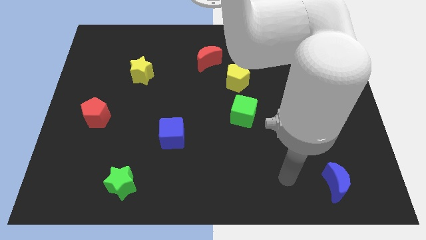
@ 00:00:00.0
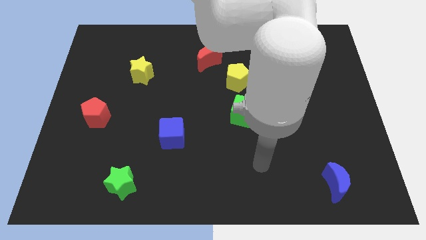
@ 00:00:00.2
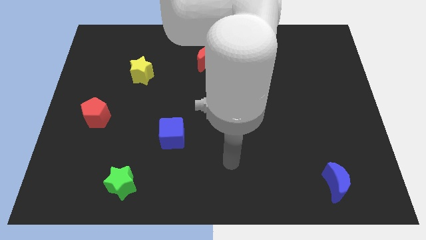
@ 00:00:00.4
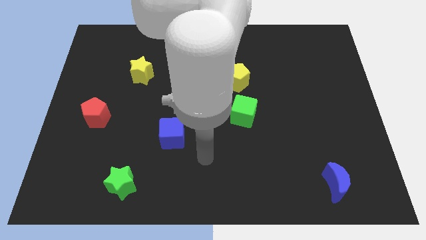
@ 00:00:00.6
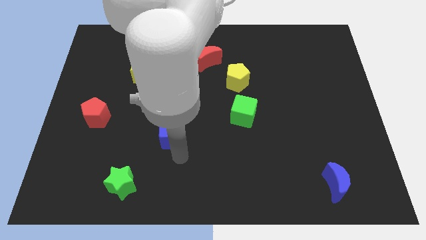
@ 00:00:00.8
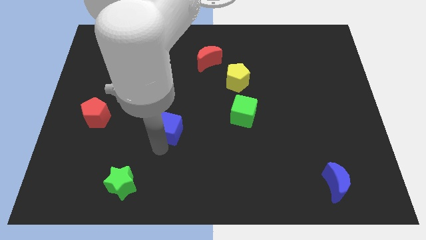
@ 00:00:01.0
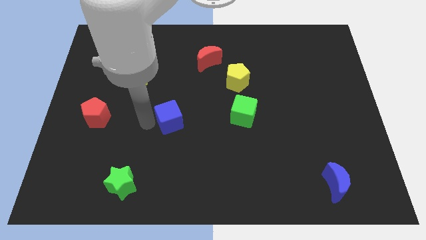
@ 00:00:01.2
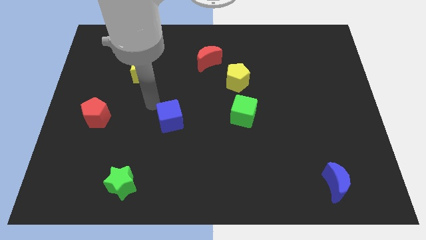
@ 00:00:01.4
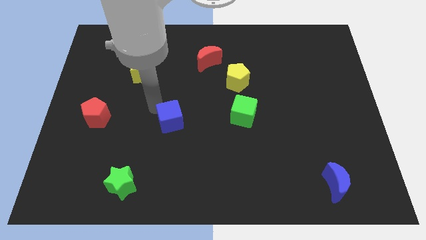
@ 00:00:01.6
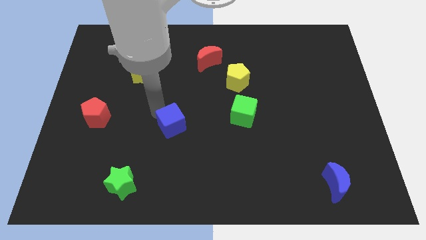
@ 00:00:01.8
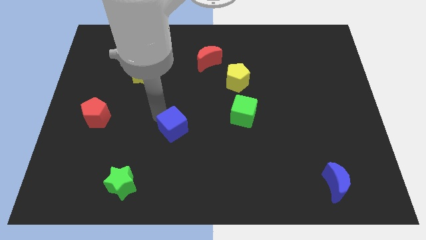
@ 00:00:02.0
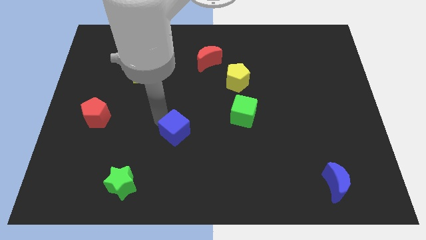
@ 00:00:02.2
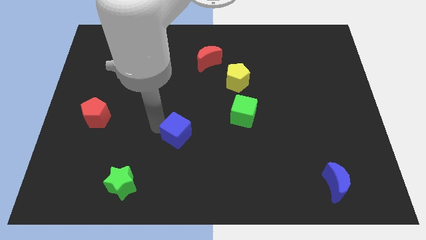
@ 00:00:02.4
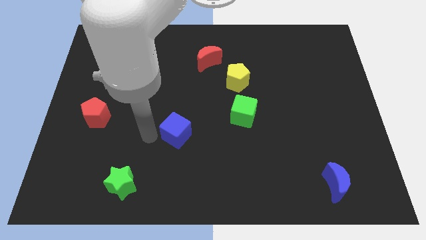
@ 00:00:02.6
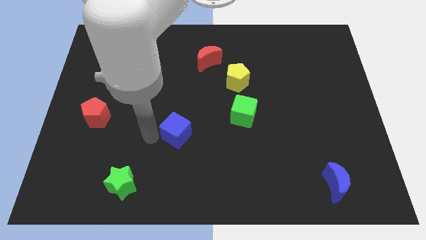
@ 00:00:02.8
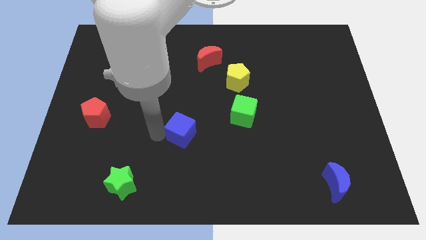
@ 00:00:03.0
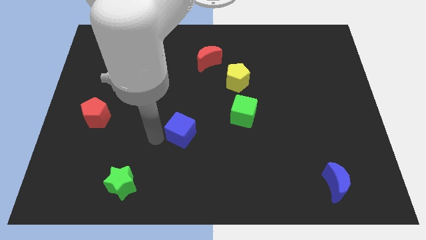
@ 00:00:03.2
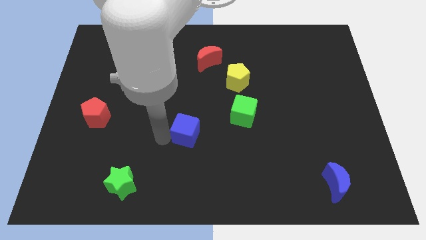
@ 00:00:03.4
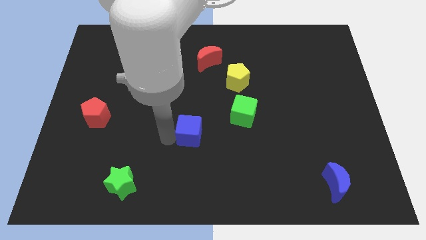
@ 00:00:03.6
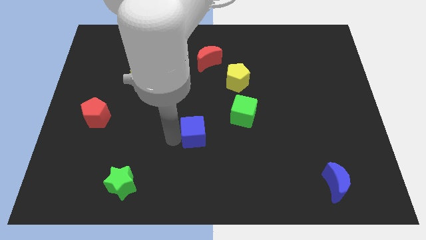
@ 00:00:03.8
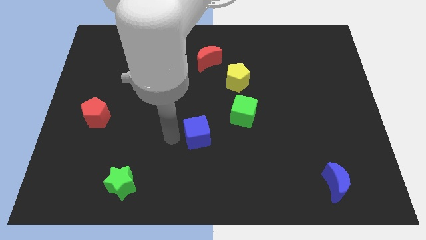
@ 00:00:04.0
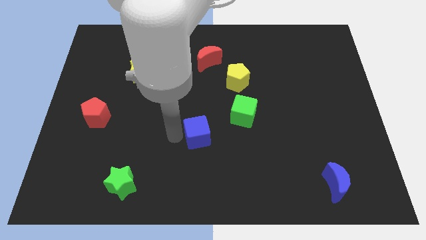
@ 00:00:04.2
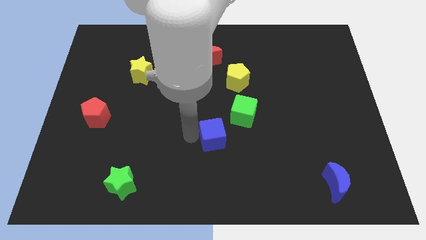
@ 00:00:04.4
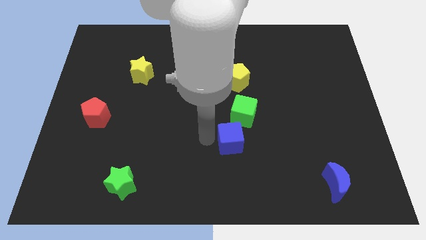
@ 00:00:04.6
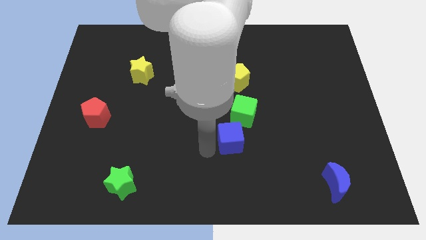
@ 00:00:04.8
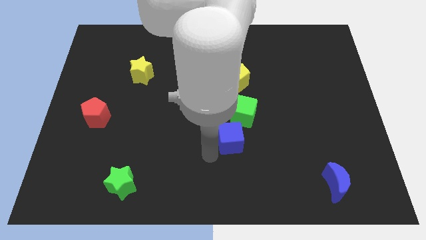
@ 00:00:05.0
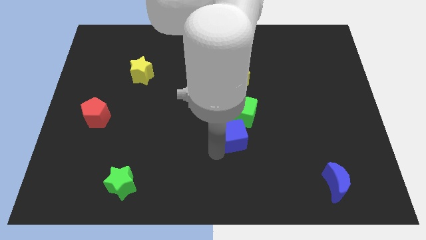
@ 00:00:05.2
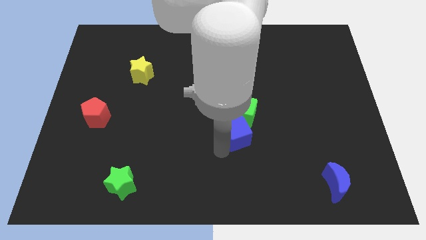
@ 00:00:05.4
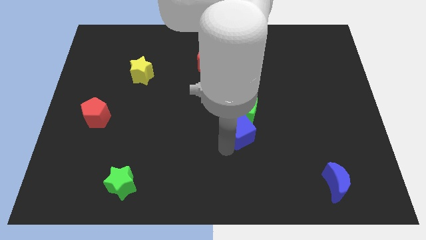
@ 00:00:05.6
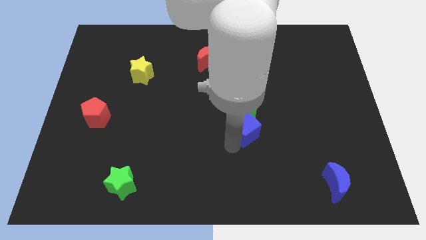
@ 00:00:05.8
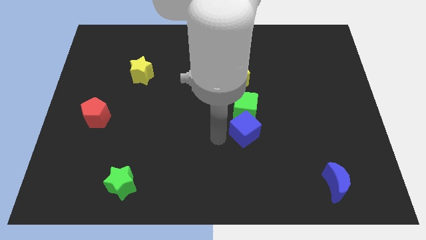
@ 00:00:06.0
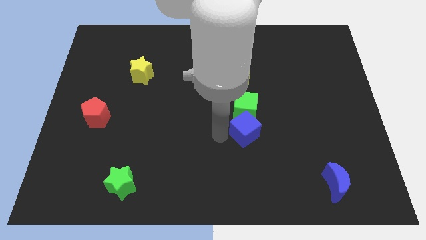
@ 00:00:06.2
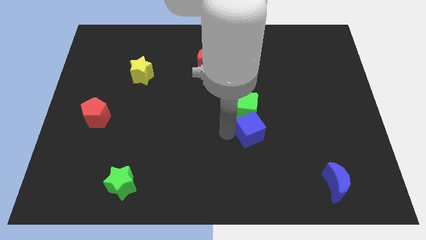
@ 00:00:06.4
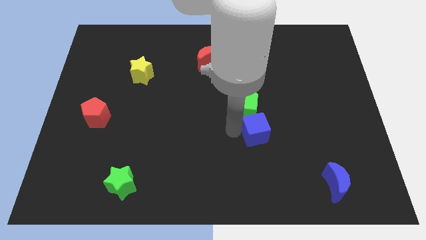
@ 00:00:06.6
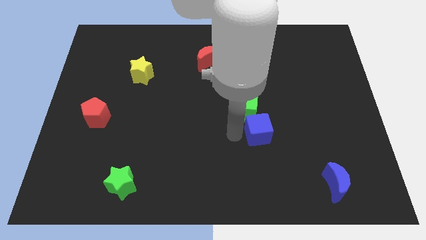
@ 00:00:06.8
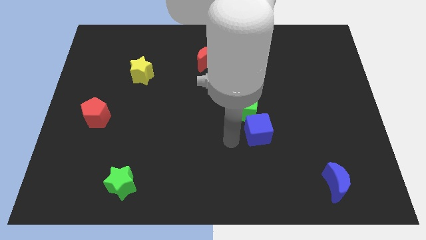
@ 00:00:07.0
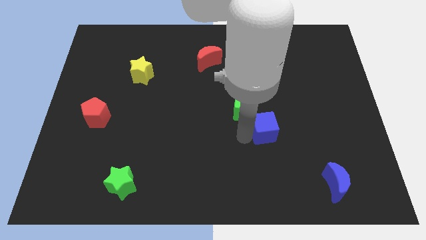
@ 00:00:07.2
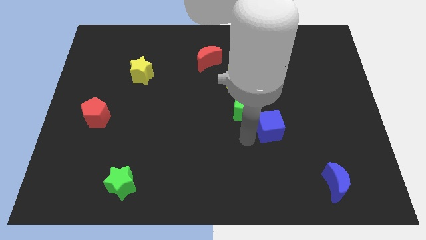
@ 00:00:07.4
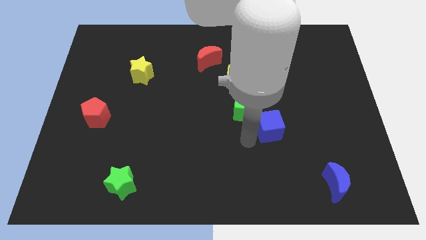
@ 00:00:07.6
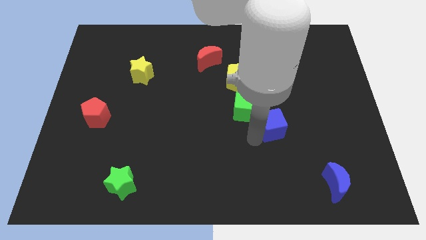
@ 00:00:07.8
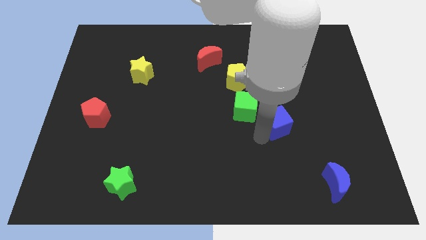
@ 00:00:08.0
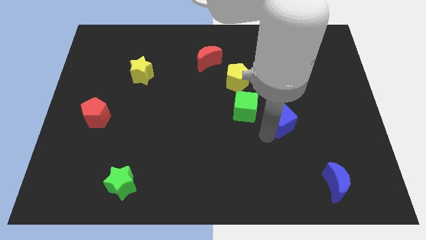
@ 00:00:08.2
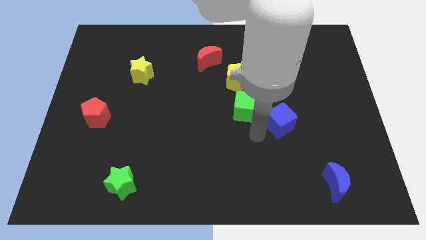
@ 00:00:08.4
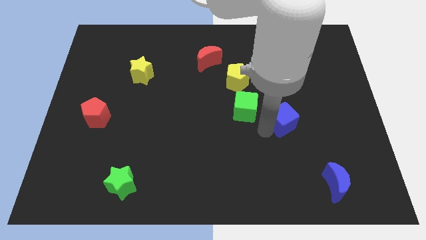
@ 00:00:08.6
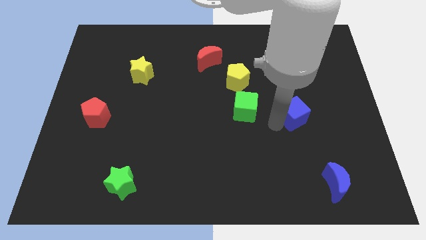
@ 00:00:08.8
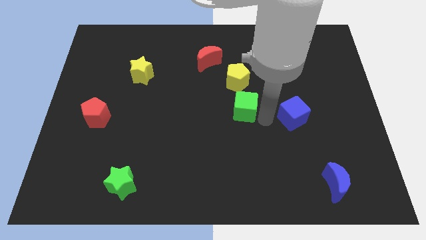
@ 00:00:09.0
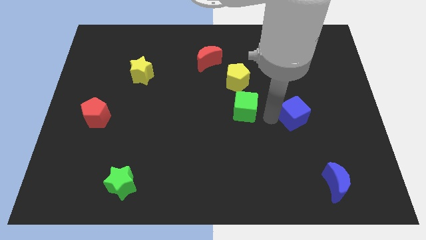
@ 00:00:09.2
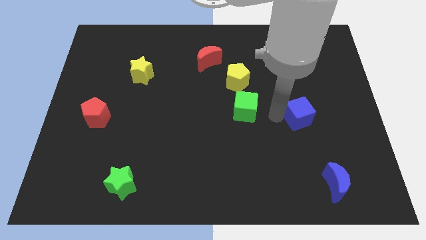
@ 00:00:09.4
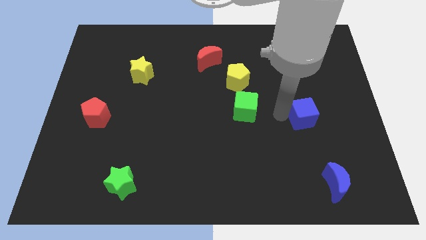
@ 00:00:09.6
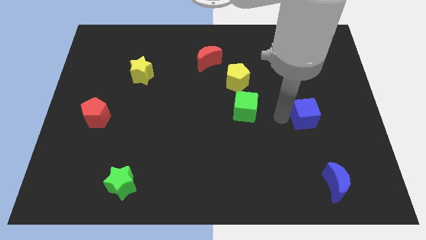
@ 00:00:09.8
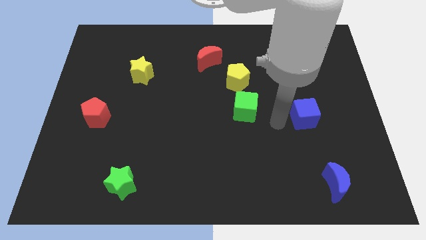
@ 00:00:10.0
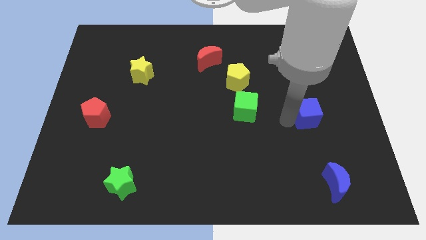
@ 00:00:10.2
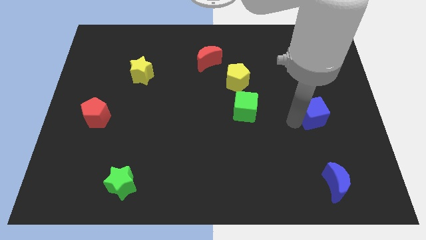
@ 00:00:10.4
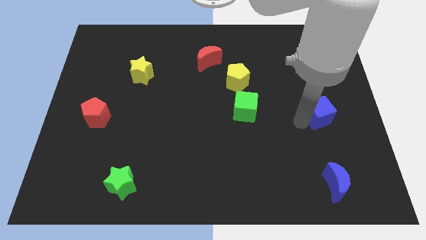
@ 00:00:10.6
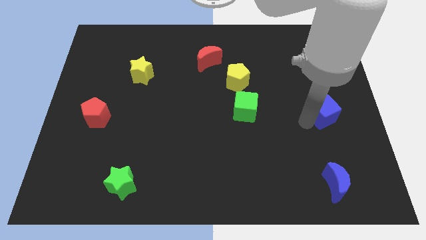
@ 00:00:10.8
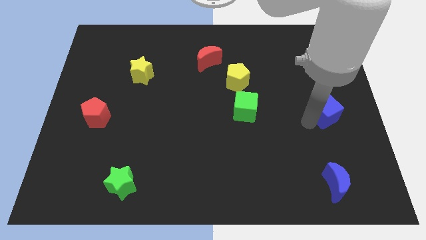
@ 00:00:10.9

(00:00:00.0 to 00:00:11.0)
push the blue cube to the right side
